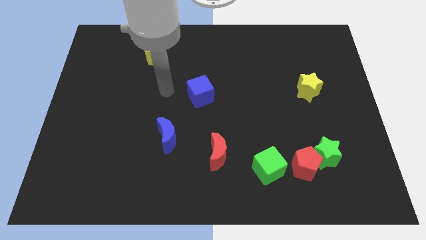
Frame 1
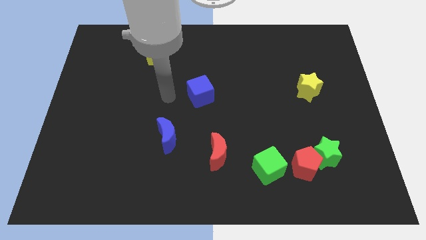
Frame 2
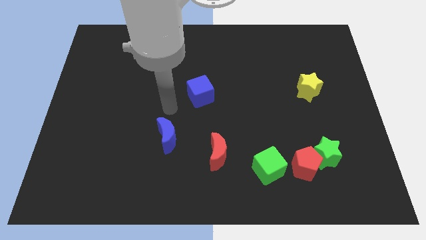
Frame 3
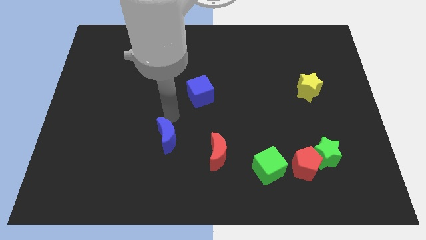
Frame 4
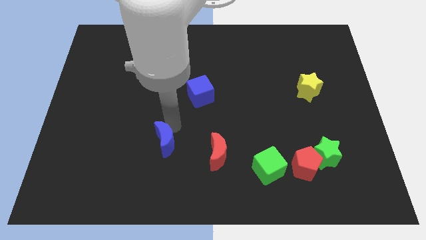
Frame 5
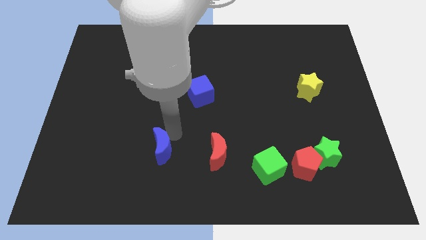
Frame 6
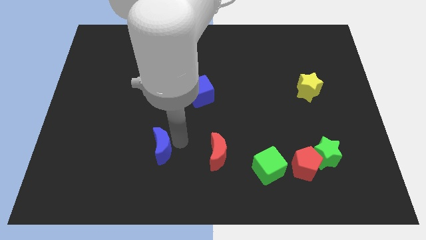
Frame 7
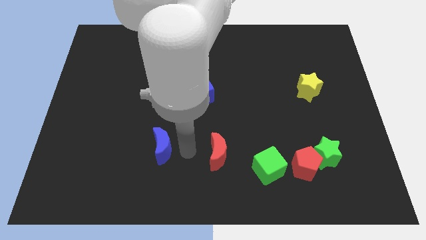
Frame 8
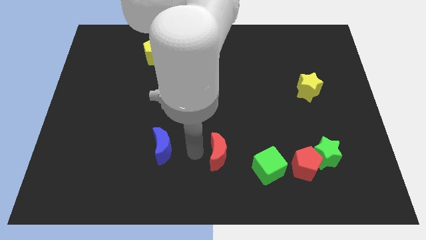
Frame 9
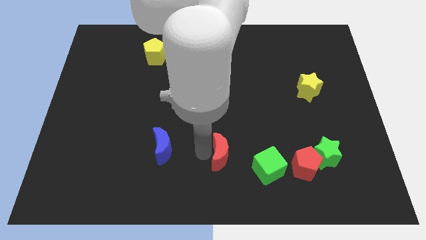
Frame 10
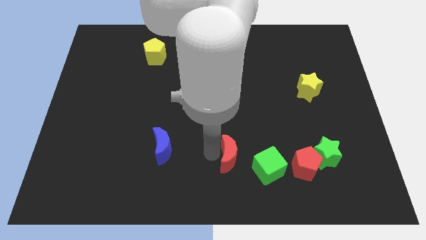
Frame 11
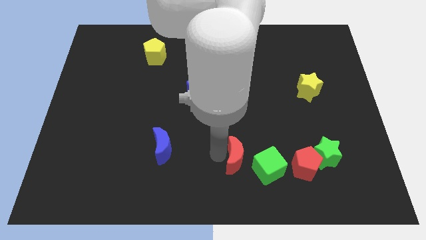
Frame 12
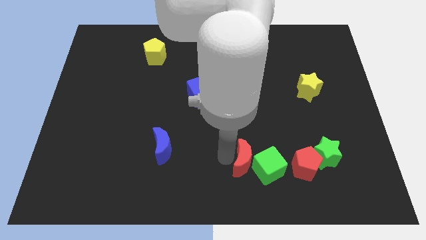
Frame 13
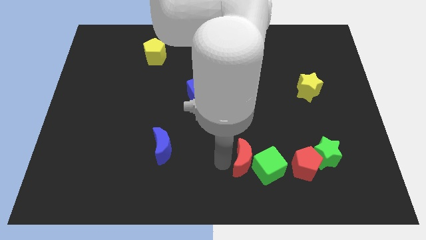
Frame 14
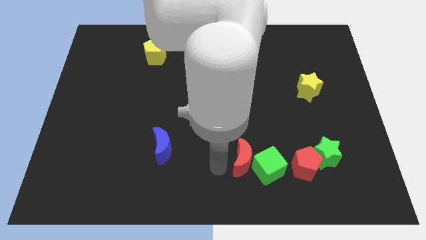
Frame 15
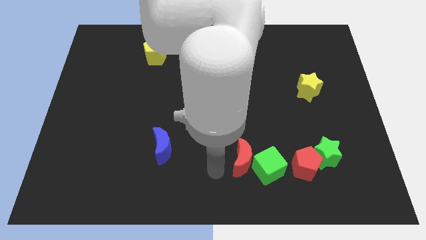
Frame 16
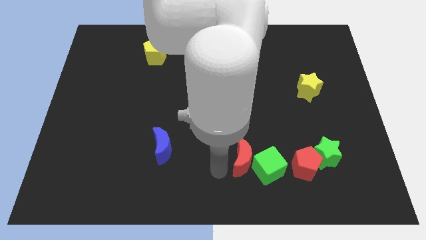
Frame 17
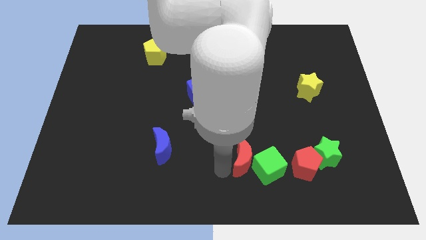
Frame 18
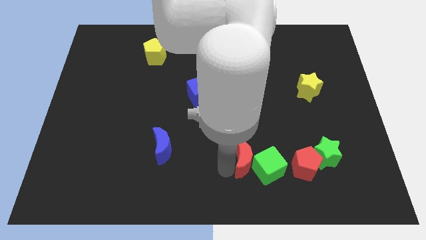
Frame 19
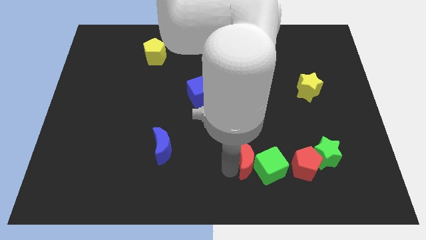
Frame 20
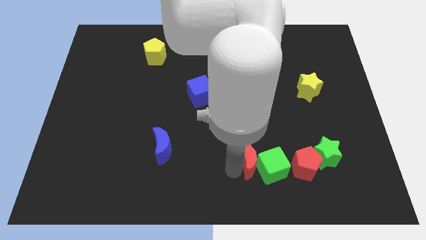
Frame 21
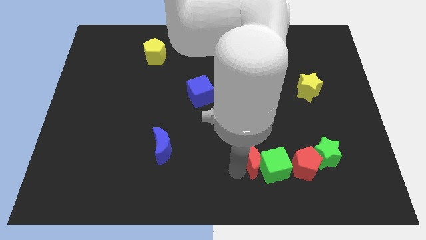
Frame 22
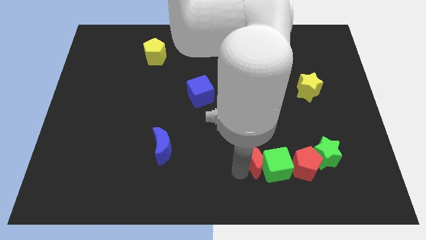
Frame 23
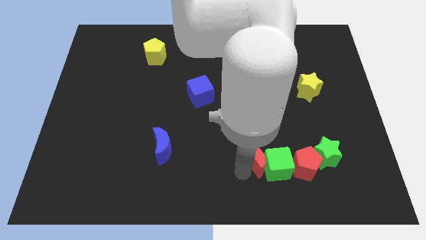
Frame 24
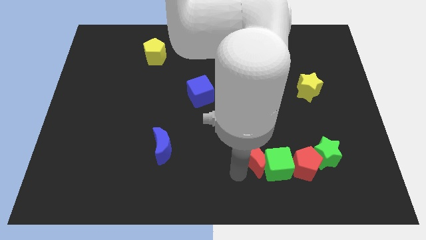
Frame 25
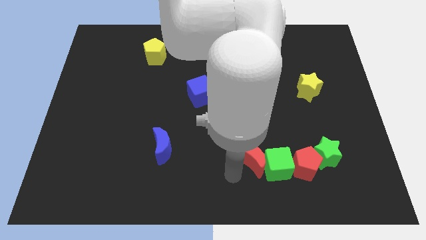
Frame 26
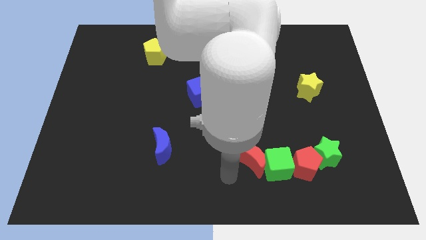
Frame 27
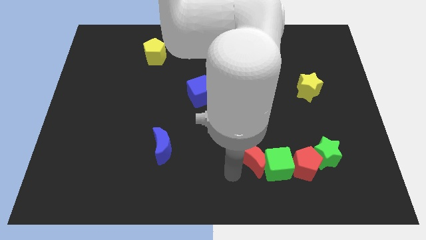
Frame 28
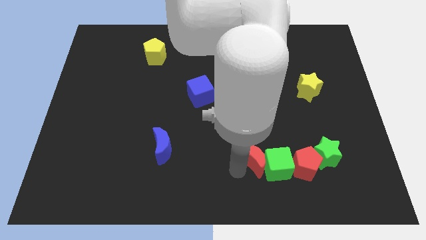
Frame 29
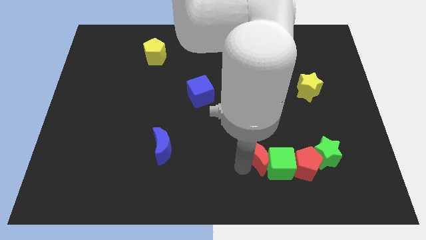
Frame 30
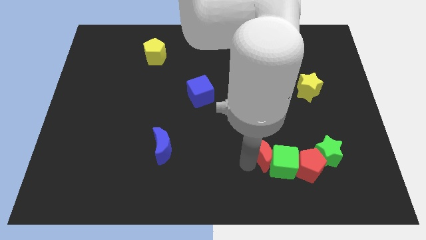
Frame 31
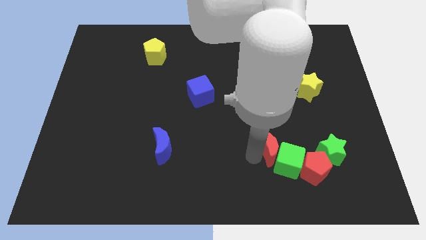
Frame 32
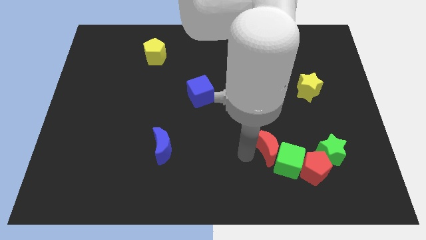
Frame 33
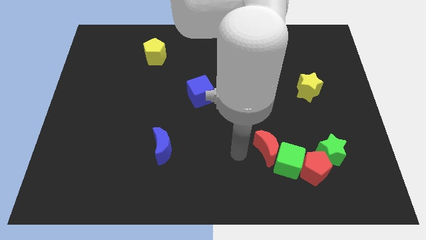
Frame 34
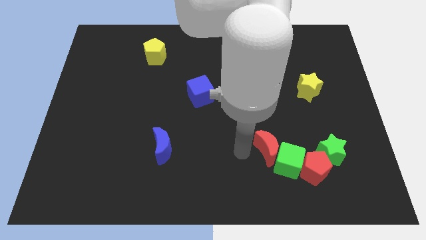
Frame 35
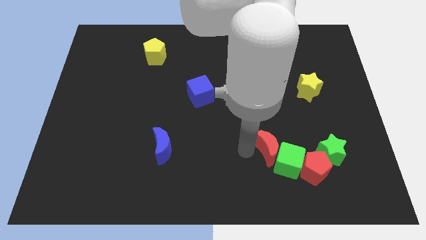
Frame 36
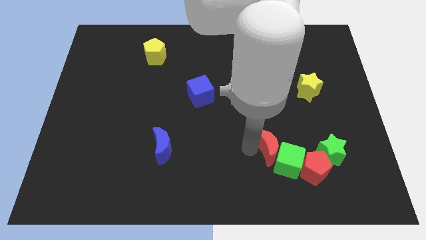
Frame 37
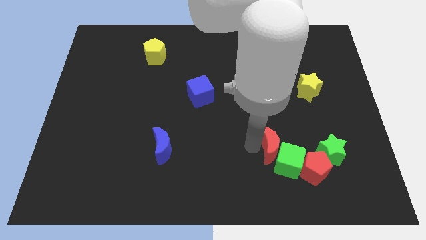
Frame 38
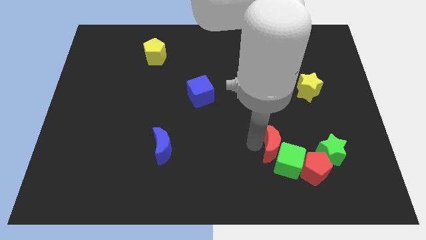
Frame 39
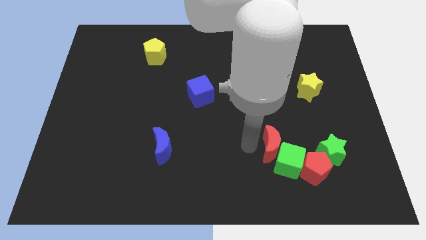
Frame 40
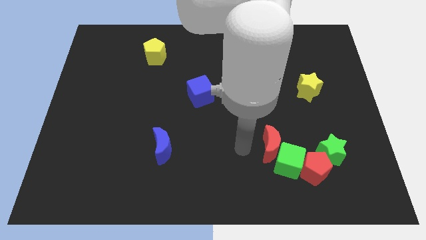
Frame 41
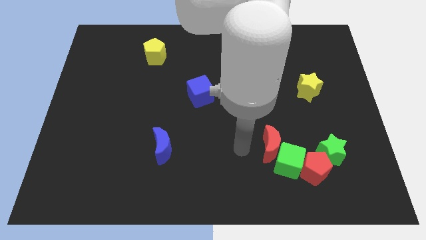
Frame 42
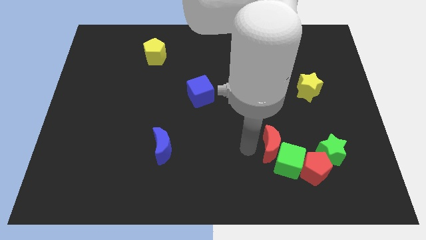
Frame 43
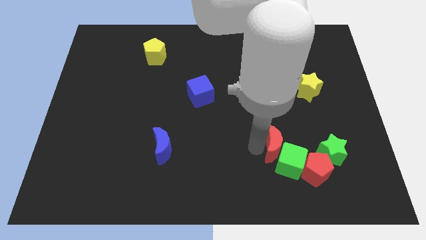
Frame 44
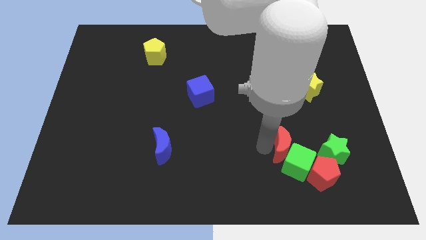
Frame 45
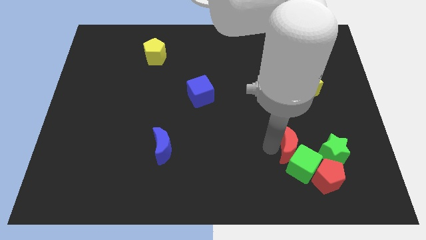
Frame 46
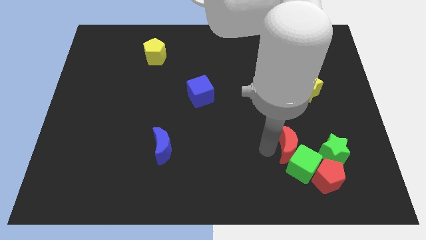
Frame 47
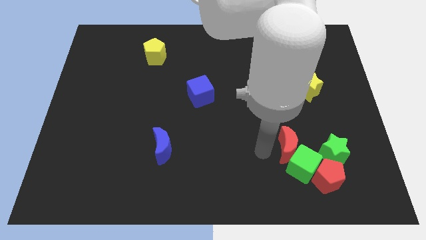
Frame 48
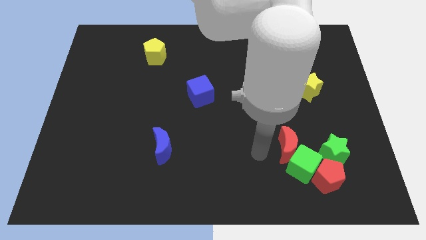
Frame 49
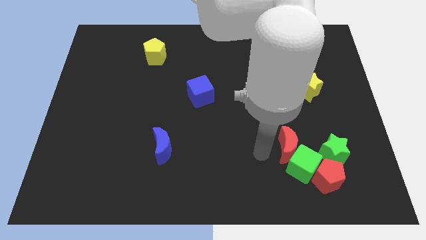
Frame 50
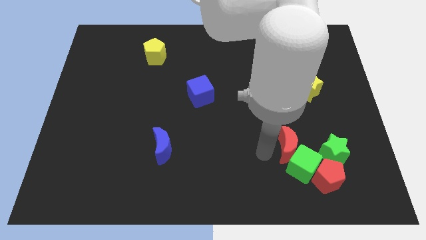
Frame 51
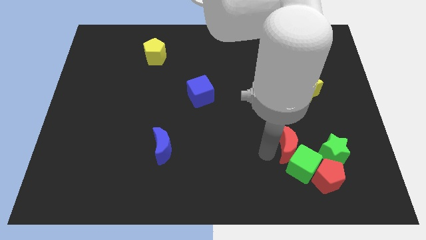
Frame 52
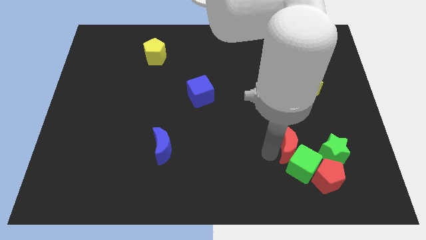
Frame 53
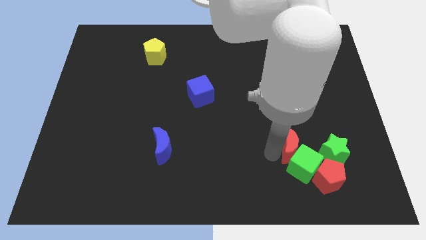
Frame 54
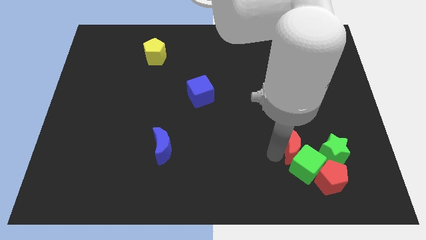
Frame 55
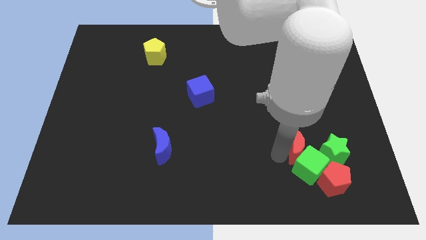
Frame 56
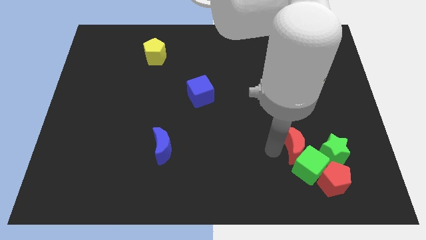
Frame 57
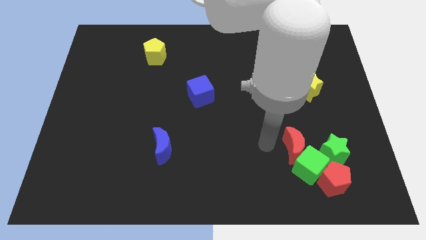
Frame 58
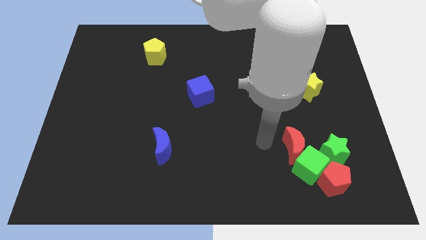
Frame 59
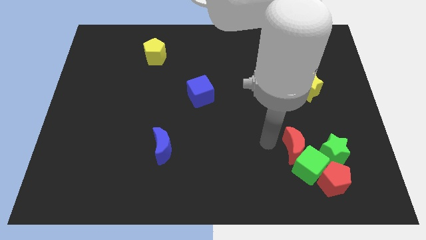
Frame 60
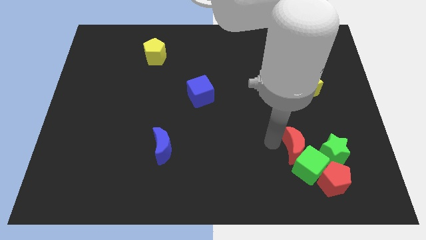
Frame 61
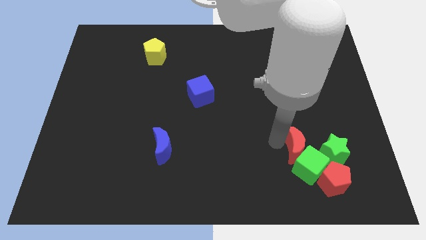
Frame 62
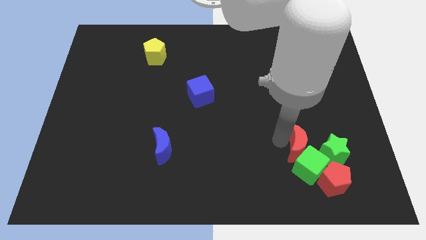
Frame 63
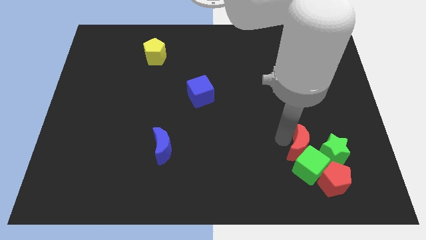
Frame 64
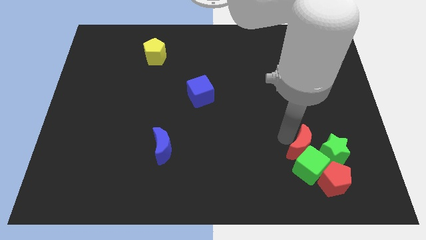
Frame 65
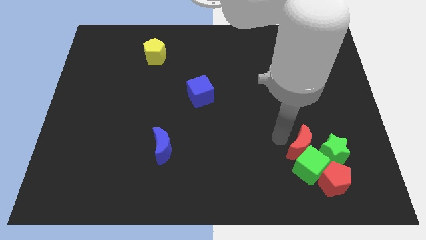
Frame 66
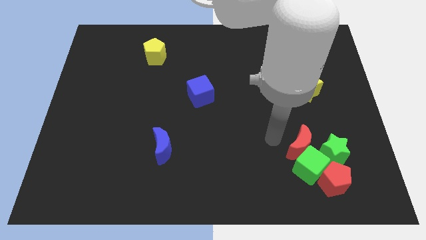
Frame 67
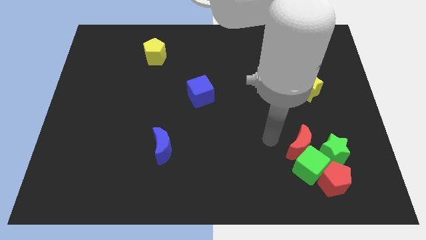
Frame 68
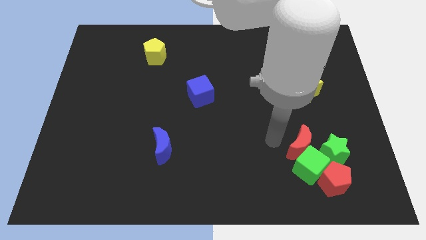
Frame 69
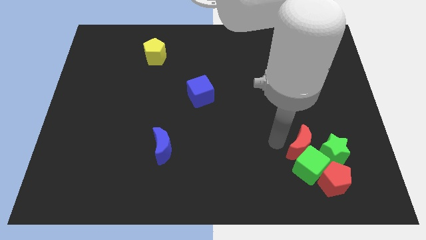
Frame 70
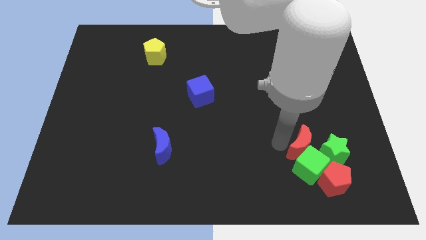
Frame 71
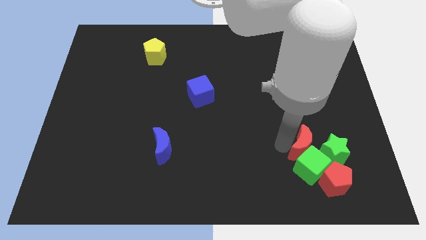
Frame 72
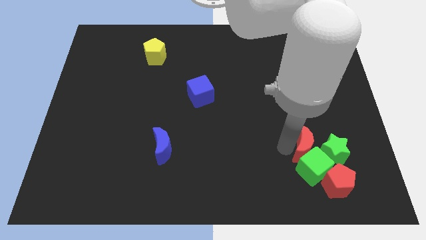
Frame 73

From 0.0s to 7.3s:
slide the red moon towards the green star

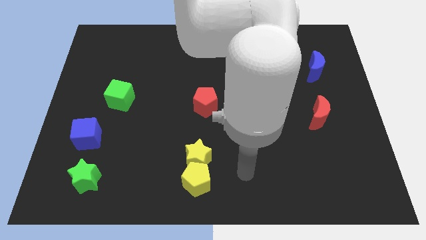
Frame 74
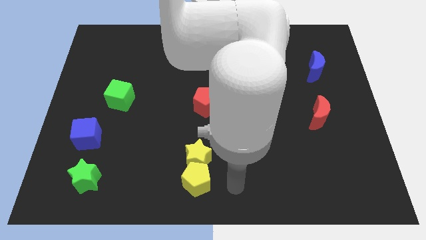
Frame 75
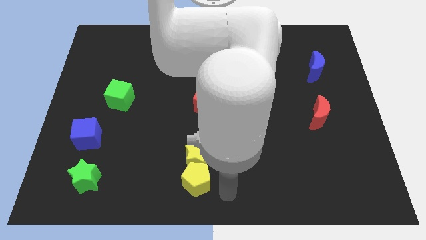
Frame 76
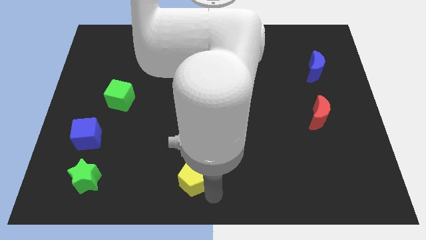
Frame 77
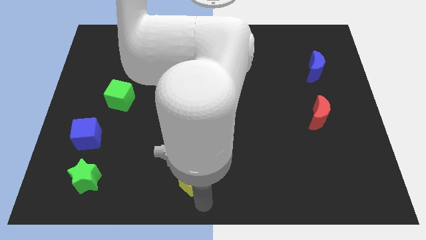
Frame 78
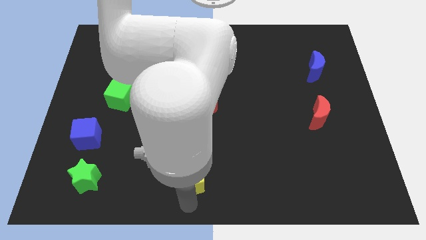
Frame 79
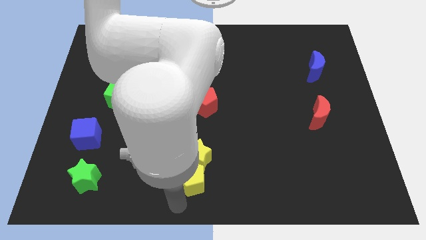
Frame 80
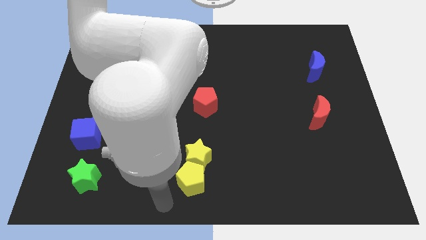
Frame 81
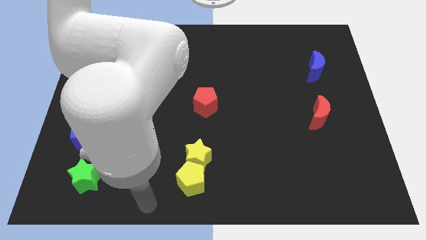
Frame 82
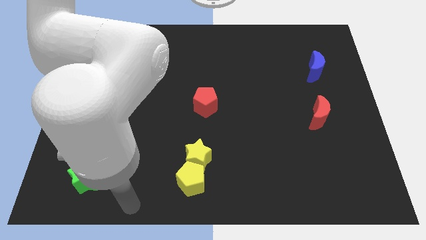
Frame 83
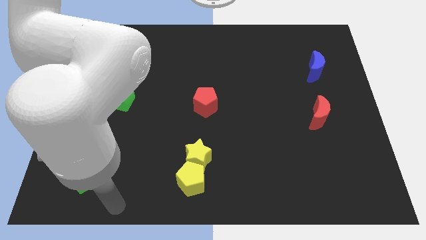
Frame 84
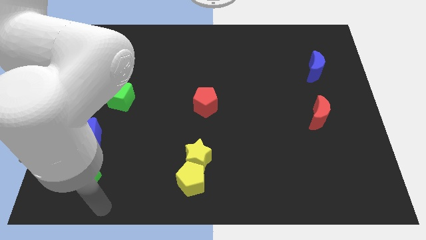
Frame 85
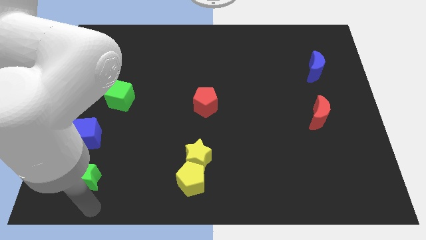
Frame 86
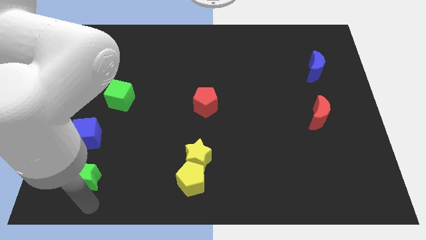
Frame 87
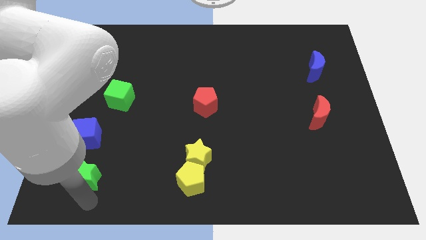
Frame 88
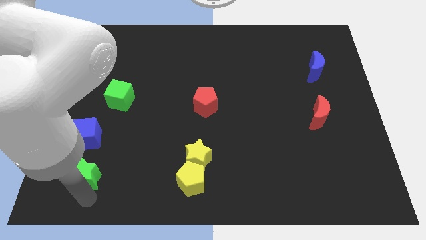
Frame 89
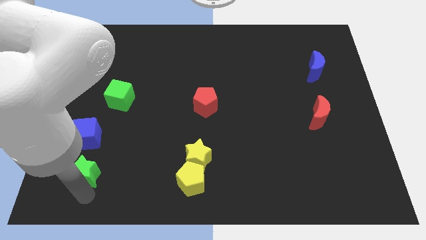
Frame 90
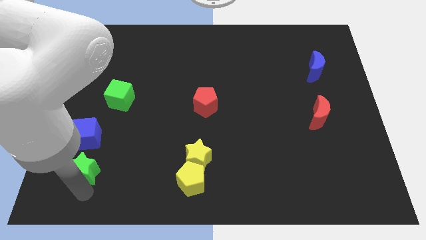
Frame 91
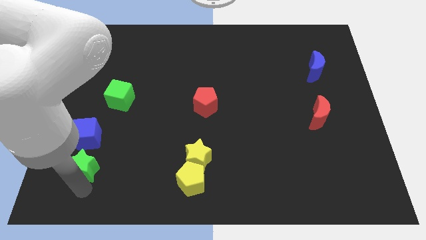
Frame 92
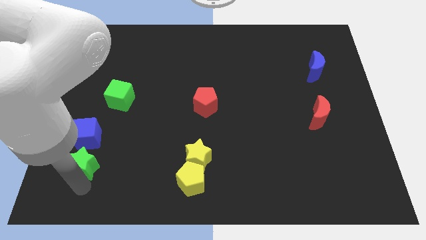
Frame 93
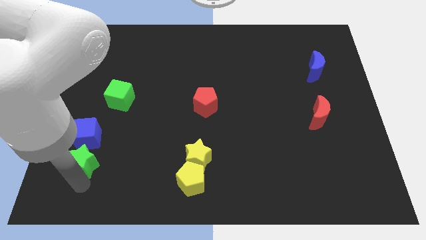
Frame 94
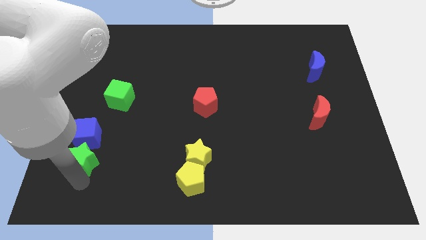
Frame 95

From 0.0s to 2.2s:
push the green star towards the blue cube
